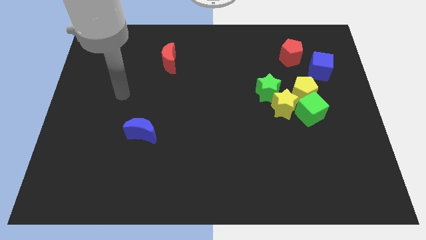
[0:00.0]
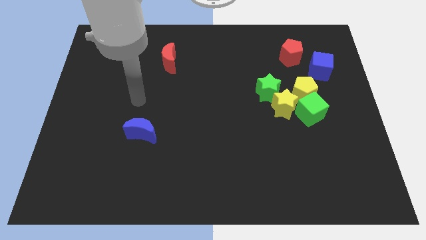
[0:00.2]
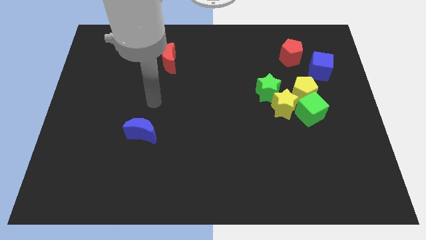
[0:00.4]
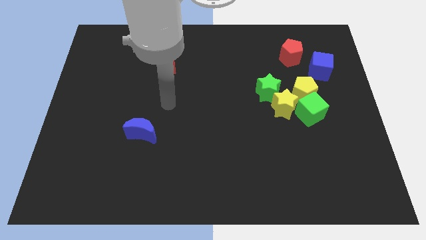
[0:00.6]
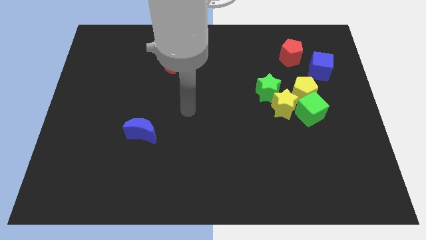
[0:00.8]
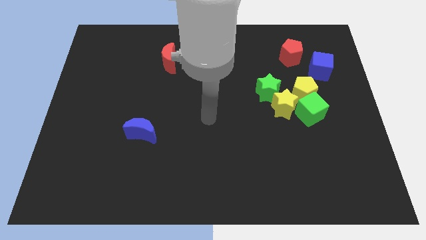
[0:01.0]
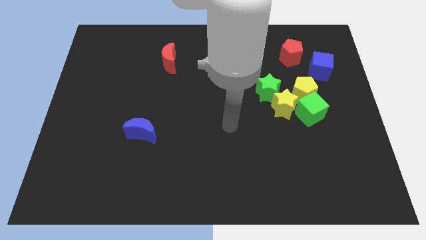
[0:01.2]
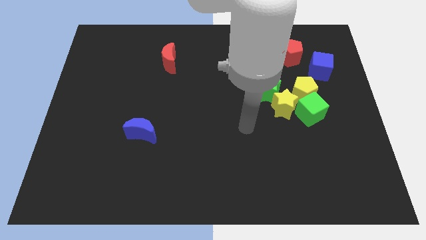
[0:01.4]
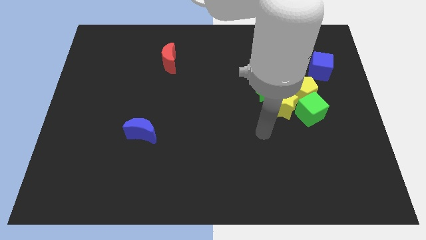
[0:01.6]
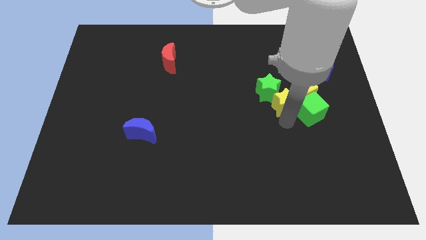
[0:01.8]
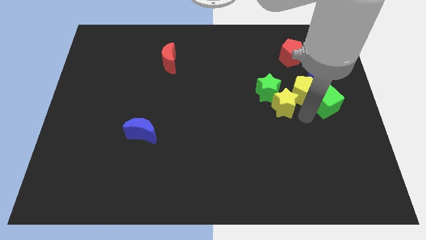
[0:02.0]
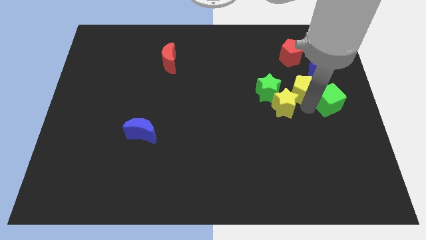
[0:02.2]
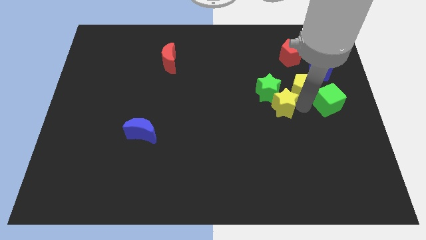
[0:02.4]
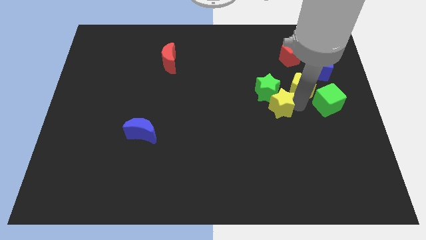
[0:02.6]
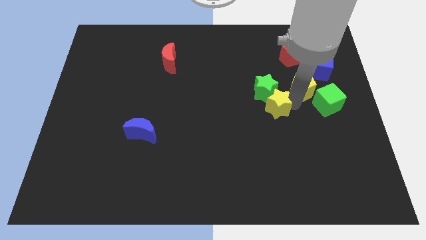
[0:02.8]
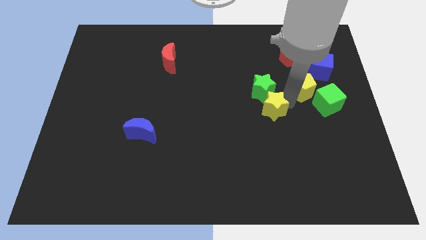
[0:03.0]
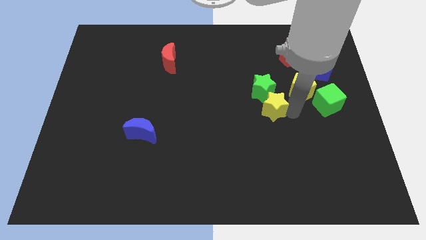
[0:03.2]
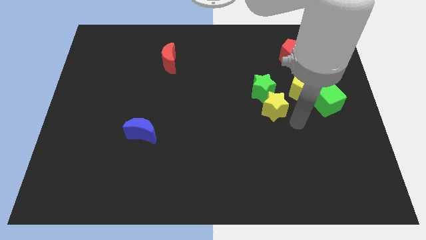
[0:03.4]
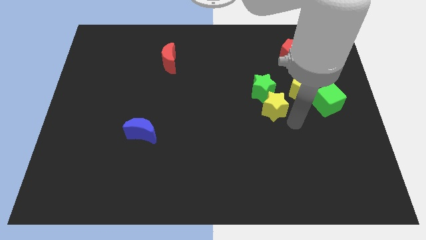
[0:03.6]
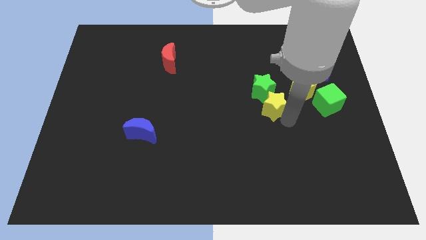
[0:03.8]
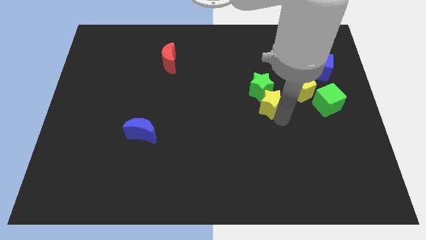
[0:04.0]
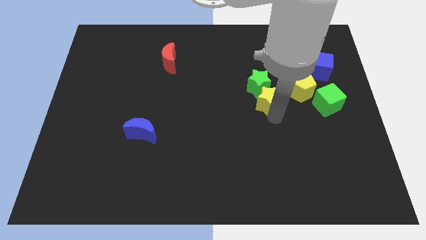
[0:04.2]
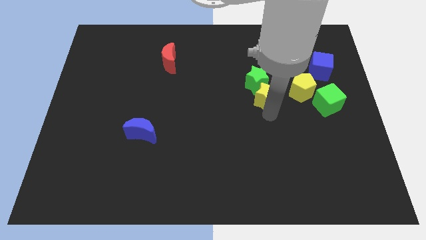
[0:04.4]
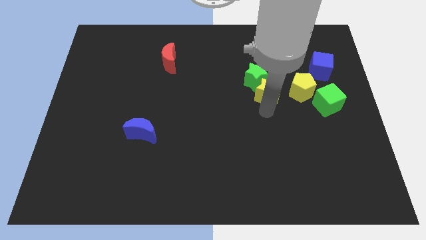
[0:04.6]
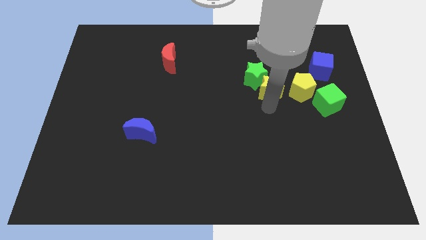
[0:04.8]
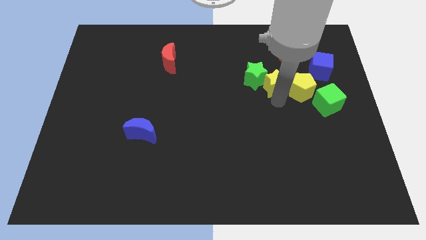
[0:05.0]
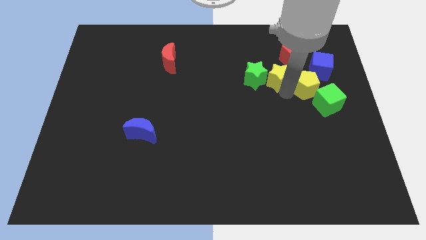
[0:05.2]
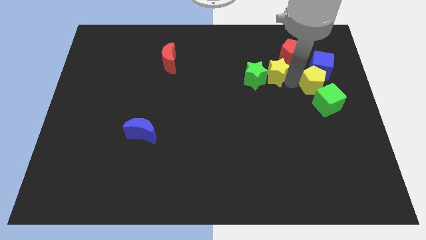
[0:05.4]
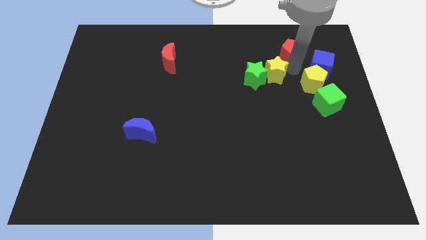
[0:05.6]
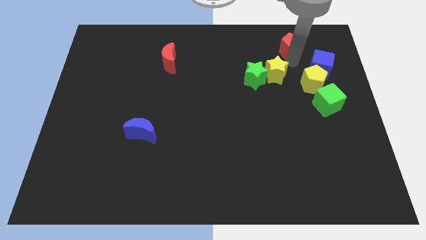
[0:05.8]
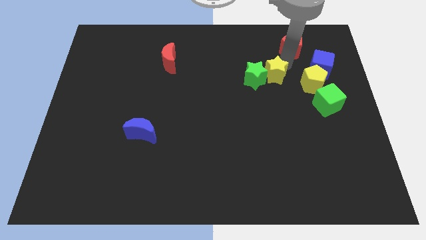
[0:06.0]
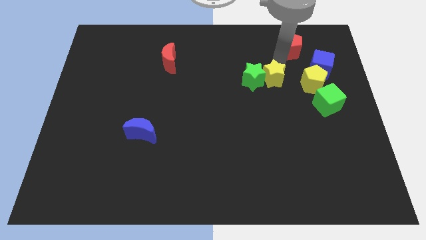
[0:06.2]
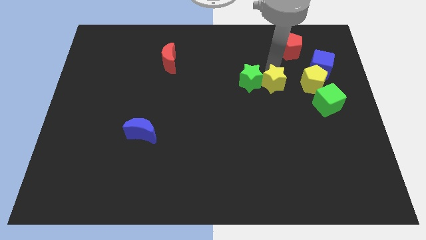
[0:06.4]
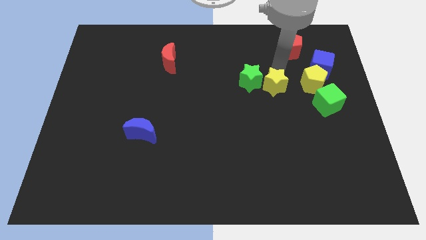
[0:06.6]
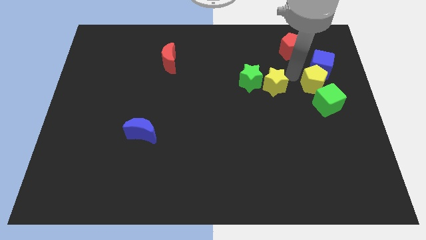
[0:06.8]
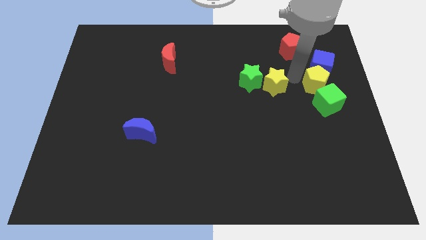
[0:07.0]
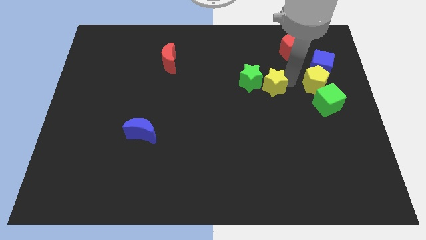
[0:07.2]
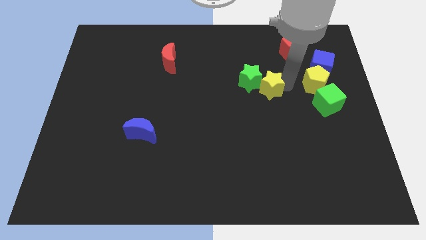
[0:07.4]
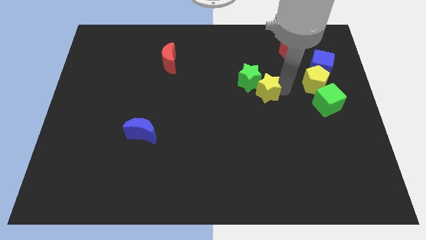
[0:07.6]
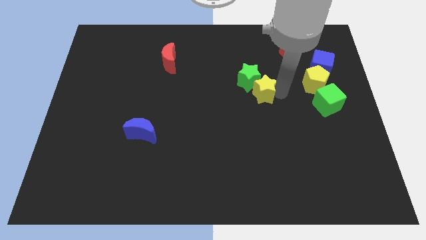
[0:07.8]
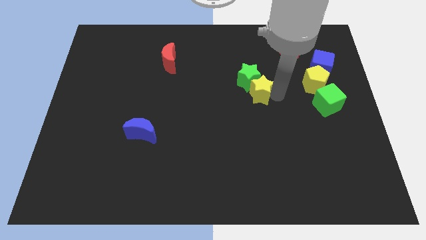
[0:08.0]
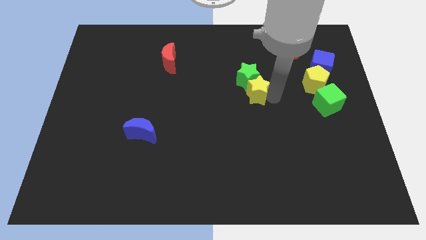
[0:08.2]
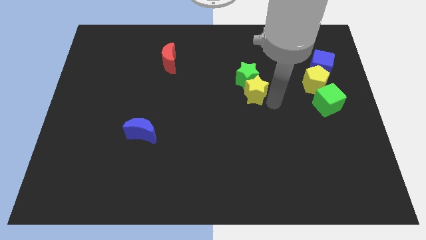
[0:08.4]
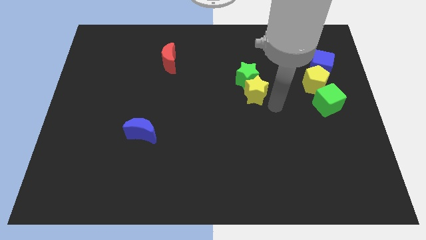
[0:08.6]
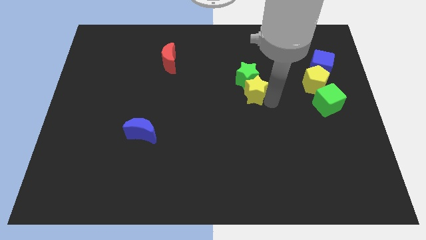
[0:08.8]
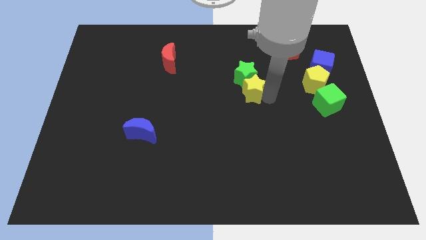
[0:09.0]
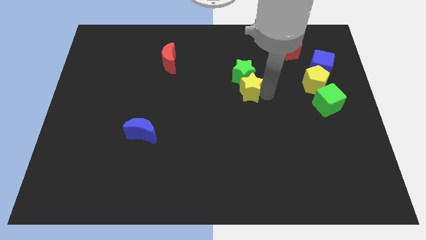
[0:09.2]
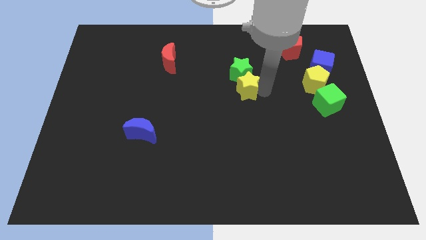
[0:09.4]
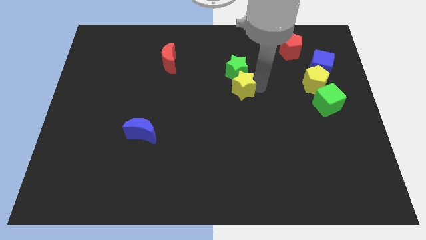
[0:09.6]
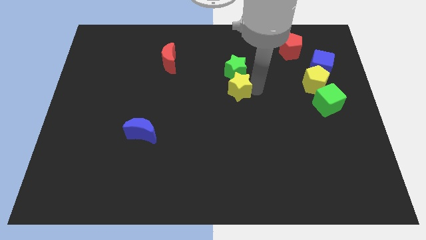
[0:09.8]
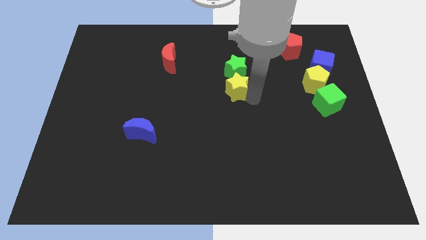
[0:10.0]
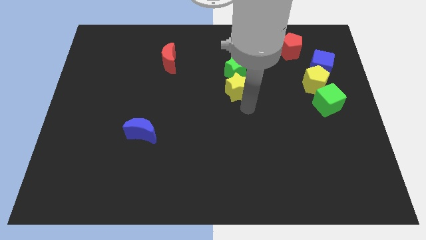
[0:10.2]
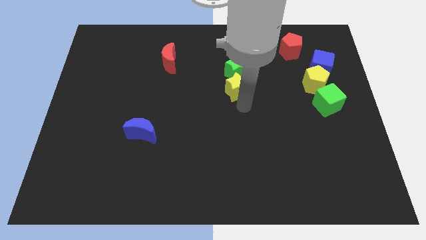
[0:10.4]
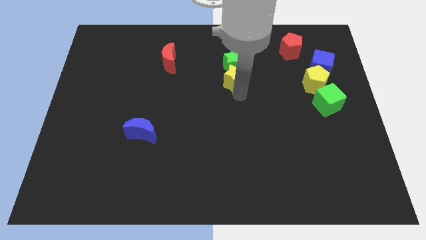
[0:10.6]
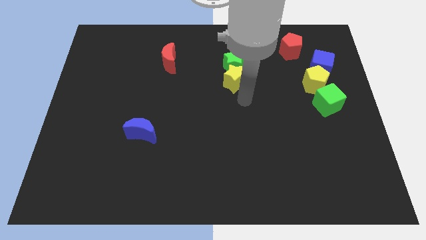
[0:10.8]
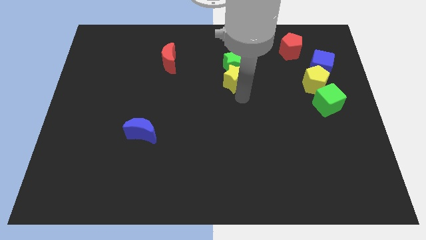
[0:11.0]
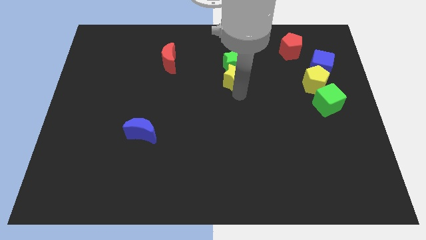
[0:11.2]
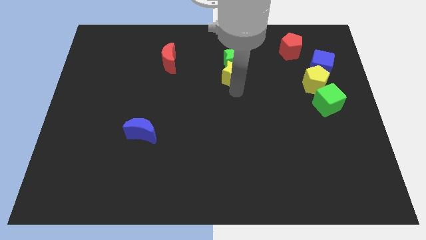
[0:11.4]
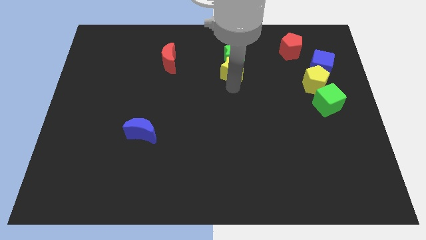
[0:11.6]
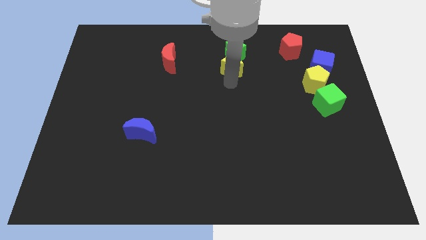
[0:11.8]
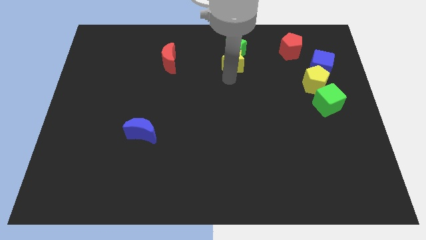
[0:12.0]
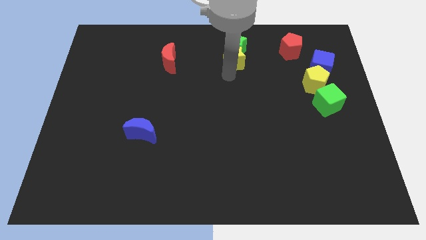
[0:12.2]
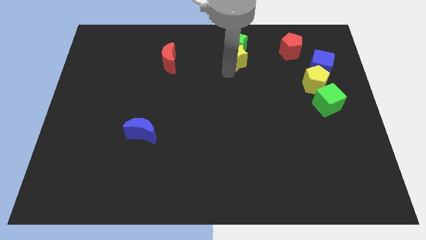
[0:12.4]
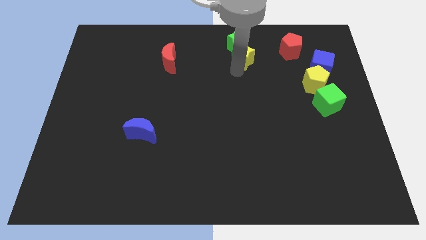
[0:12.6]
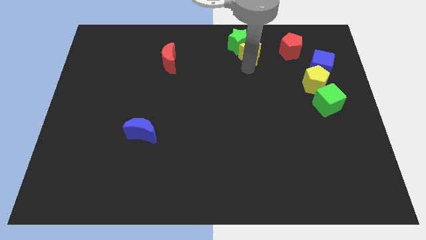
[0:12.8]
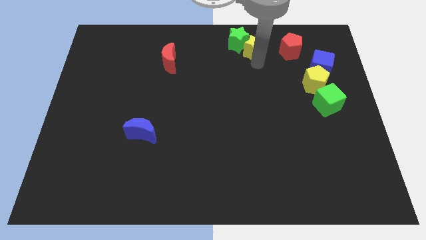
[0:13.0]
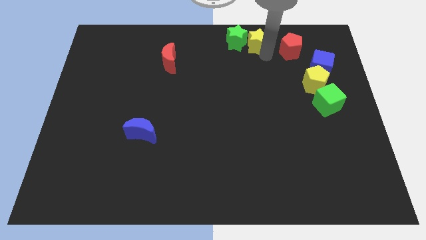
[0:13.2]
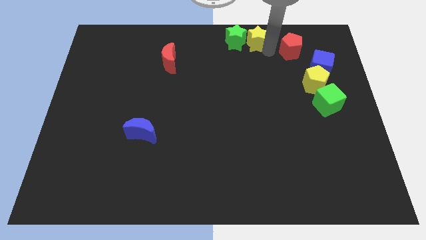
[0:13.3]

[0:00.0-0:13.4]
push the yellow star to the towards your base
